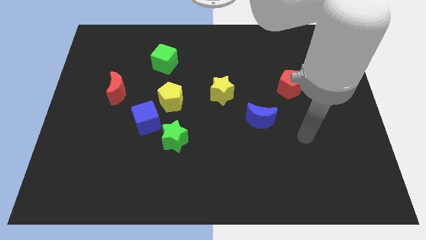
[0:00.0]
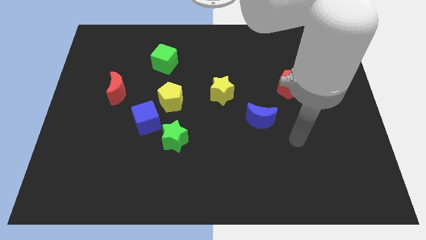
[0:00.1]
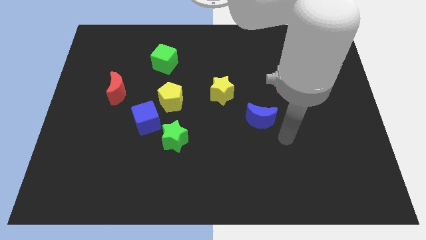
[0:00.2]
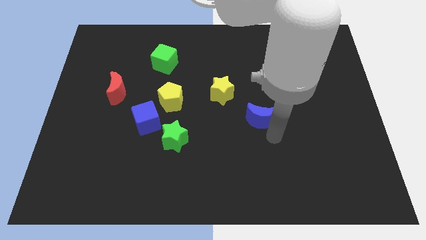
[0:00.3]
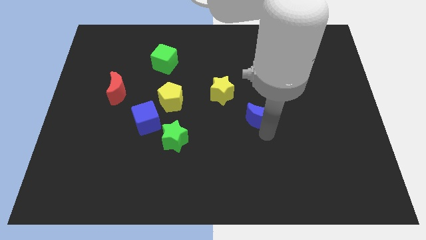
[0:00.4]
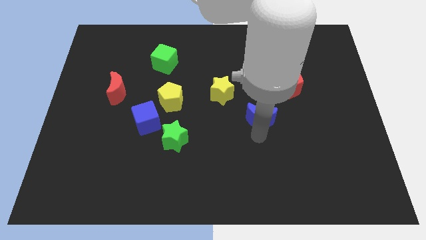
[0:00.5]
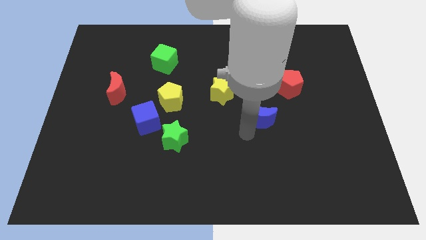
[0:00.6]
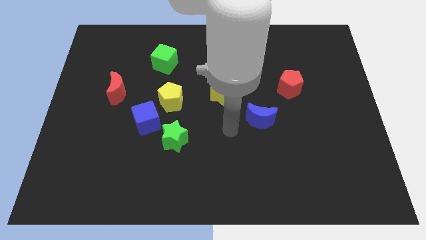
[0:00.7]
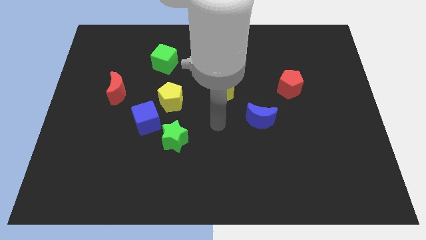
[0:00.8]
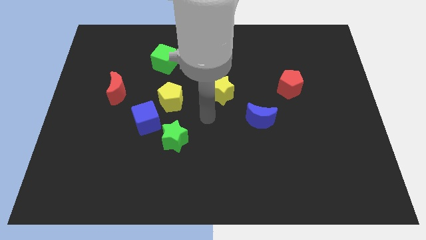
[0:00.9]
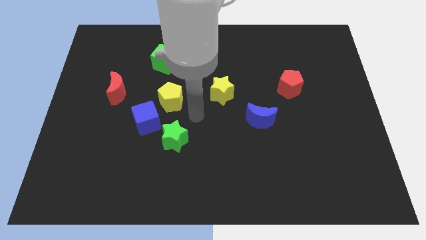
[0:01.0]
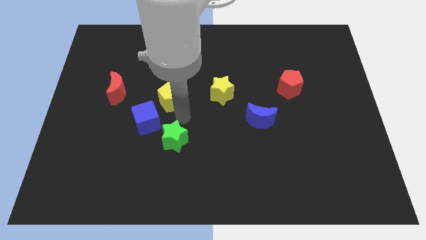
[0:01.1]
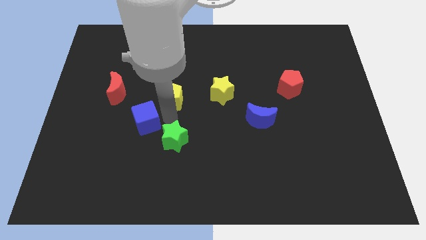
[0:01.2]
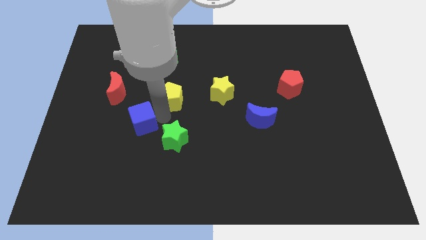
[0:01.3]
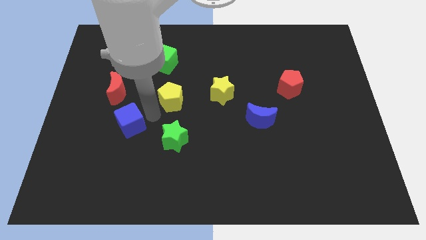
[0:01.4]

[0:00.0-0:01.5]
pull the yellow pentagon apart from the blue cube

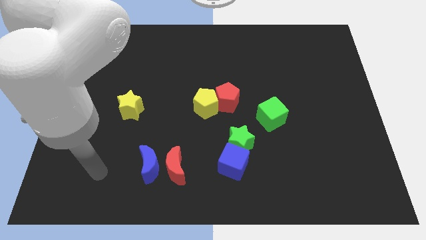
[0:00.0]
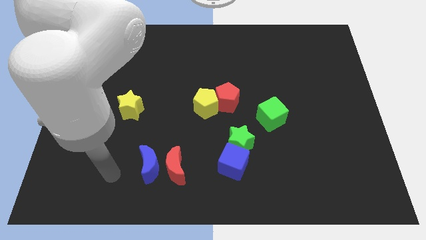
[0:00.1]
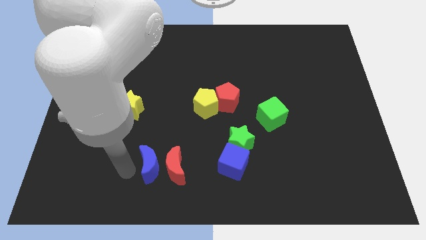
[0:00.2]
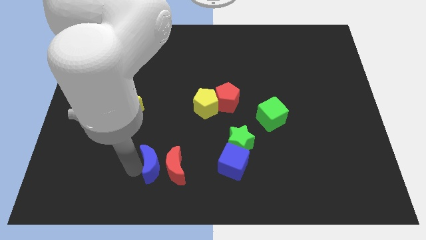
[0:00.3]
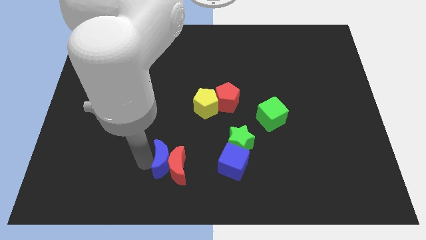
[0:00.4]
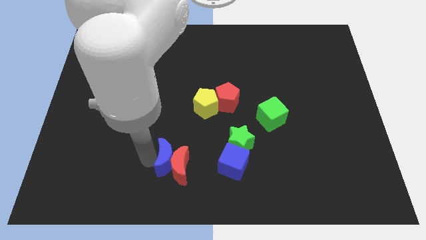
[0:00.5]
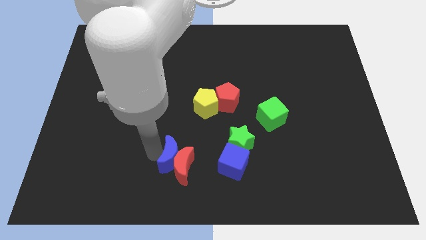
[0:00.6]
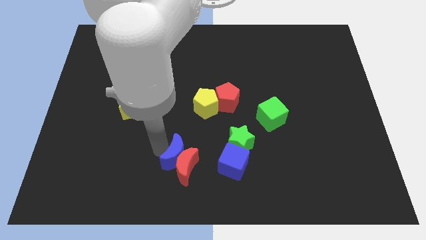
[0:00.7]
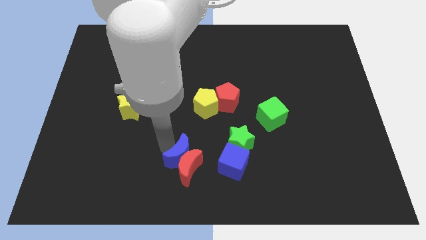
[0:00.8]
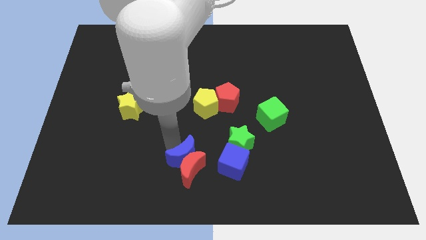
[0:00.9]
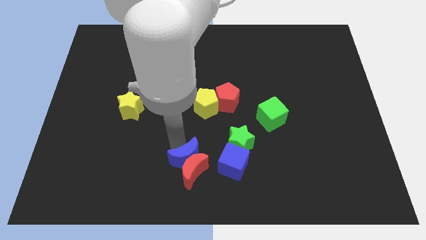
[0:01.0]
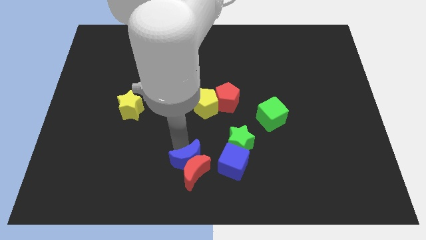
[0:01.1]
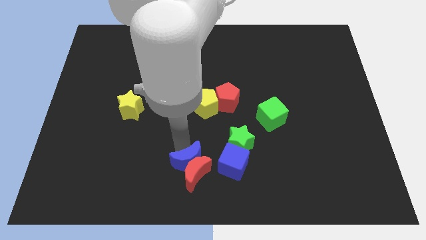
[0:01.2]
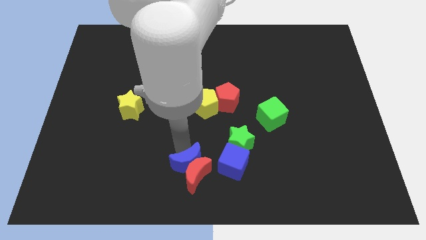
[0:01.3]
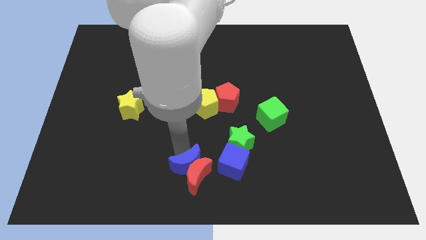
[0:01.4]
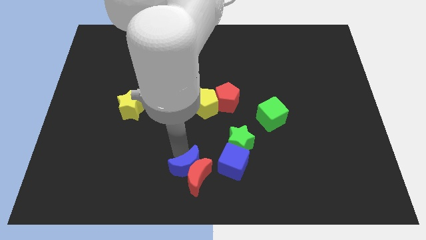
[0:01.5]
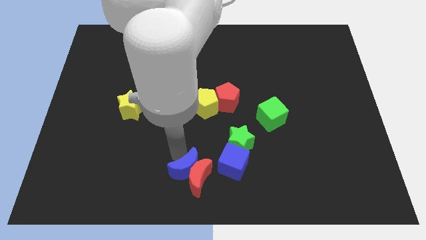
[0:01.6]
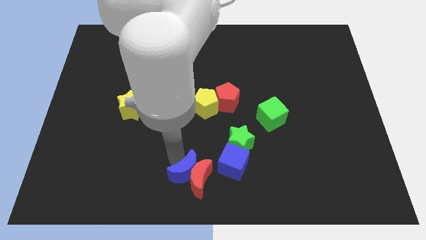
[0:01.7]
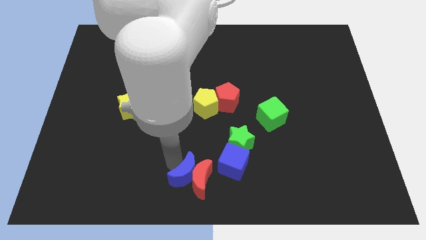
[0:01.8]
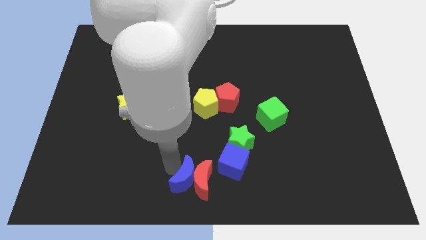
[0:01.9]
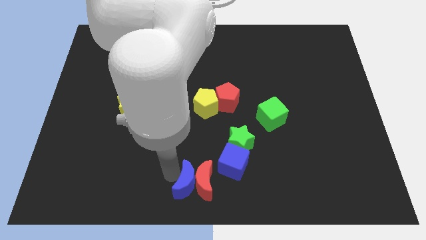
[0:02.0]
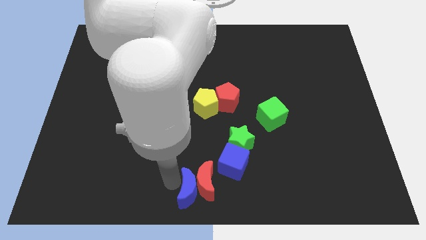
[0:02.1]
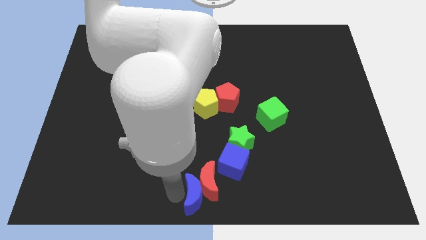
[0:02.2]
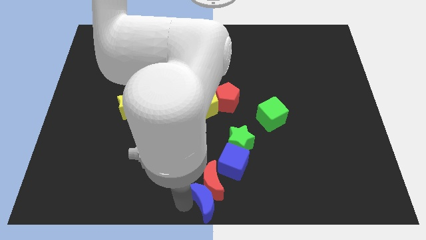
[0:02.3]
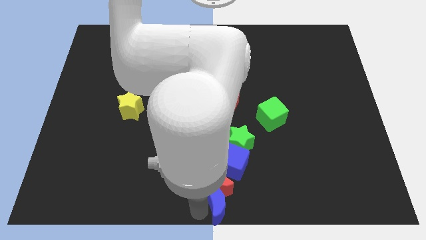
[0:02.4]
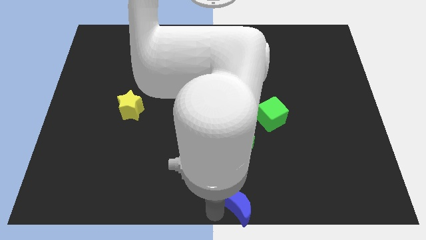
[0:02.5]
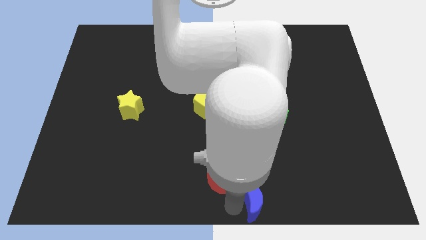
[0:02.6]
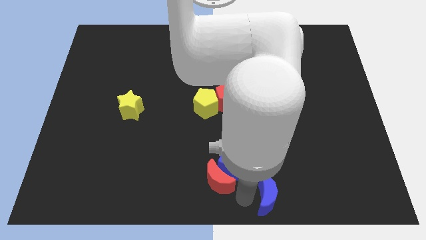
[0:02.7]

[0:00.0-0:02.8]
separate the red moon from the blue moon

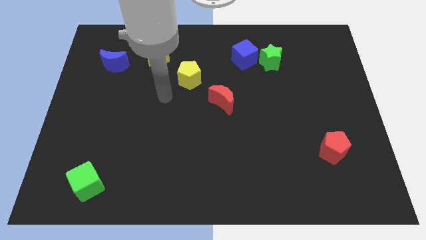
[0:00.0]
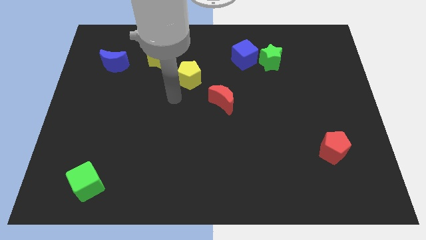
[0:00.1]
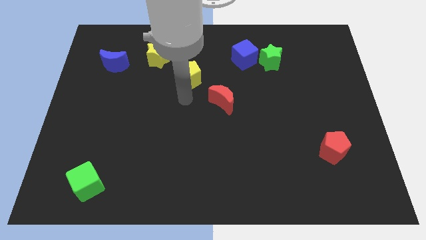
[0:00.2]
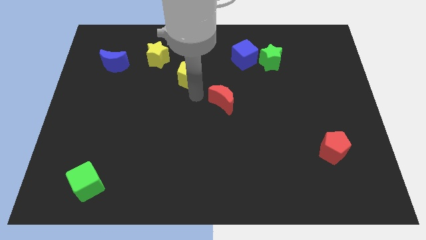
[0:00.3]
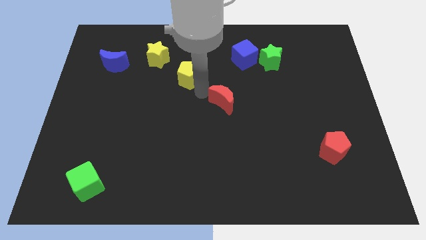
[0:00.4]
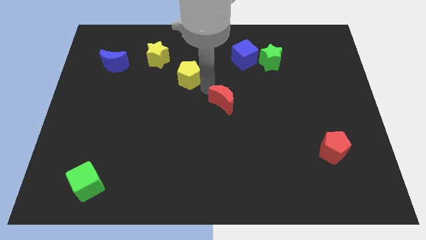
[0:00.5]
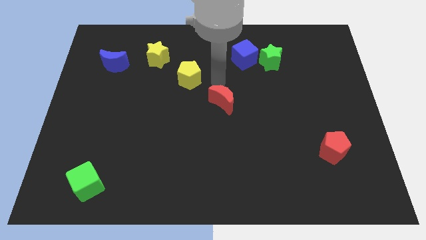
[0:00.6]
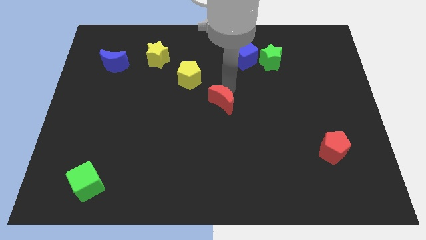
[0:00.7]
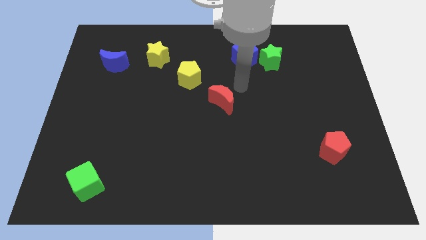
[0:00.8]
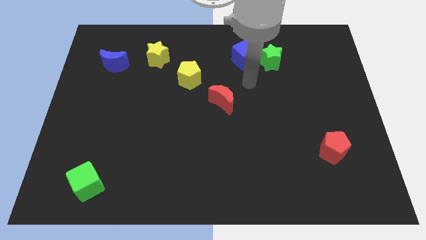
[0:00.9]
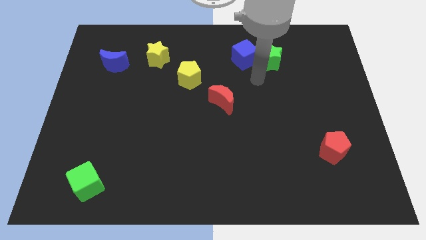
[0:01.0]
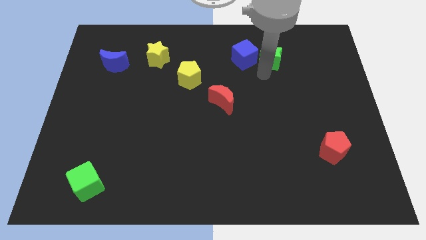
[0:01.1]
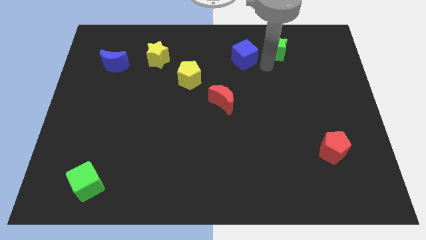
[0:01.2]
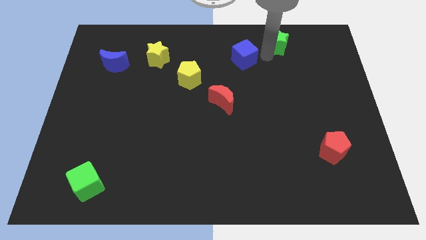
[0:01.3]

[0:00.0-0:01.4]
separate the blue cube from the green star

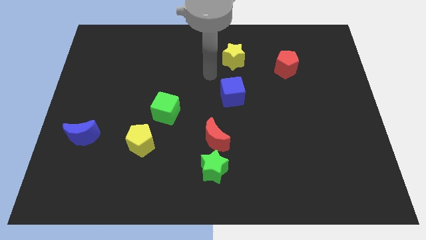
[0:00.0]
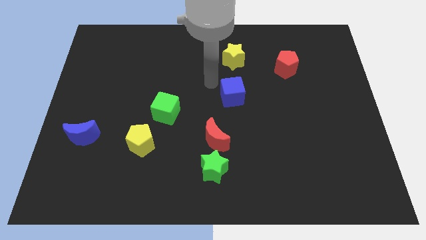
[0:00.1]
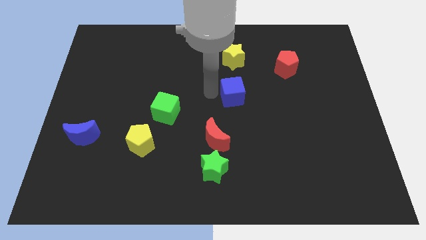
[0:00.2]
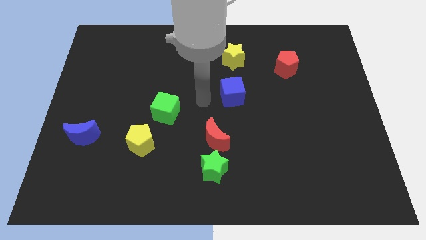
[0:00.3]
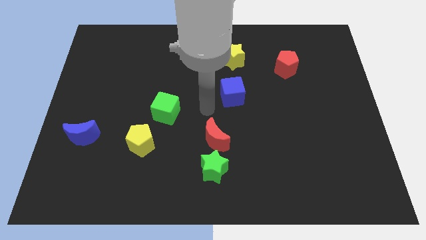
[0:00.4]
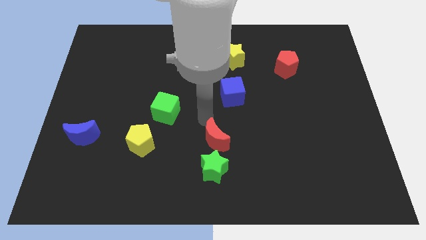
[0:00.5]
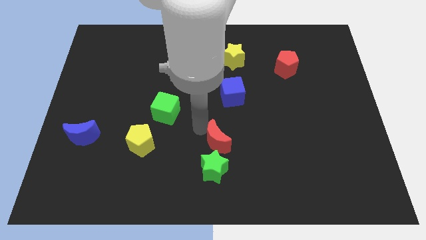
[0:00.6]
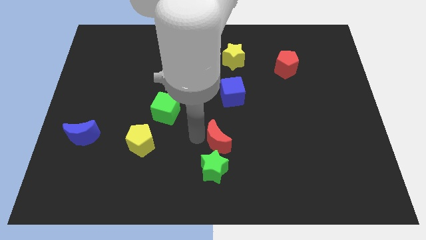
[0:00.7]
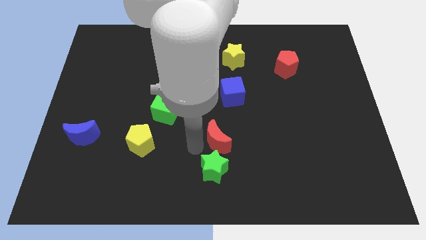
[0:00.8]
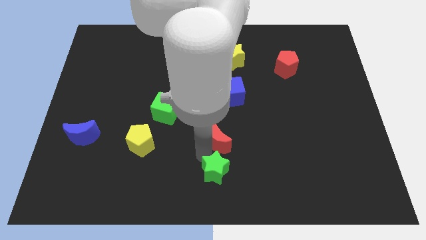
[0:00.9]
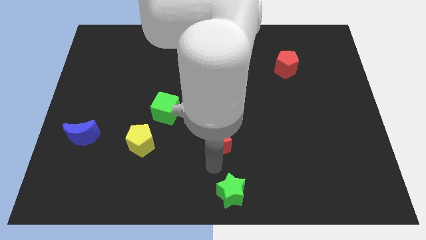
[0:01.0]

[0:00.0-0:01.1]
separate the red moon from the green star

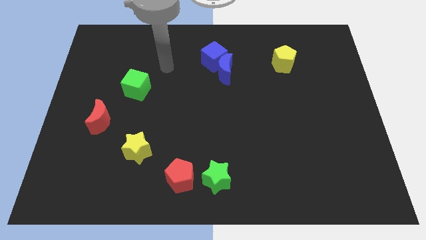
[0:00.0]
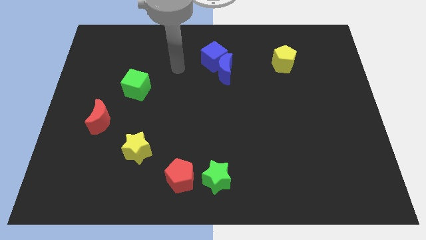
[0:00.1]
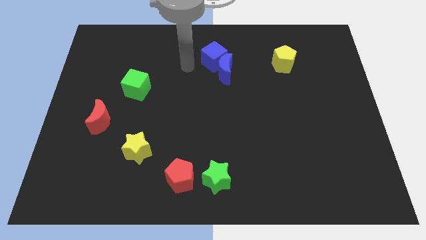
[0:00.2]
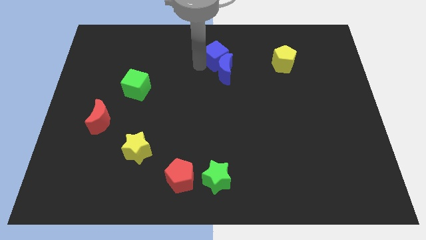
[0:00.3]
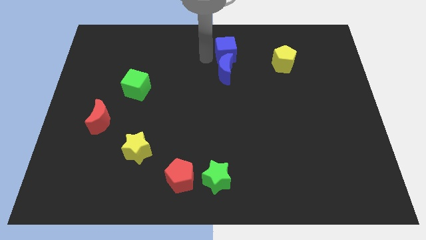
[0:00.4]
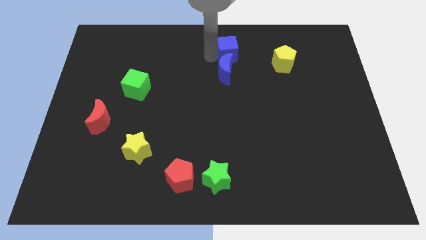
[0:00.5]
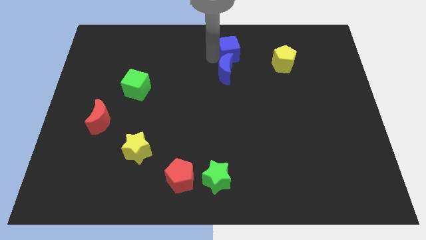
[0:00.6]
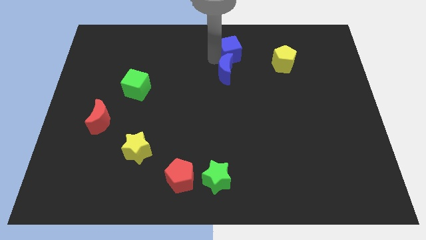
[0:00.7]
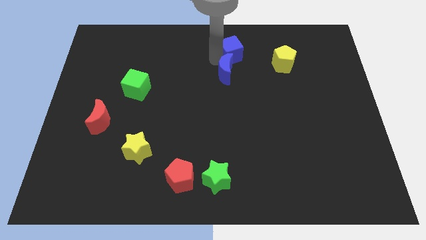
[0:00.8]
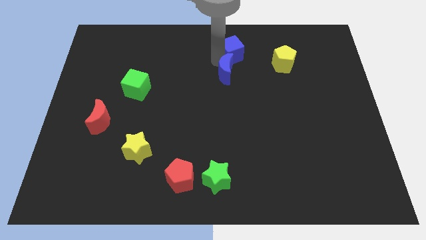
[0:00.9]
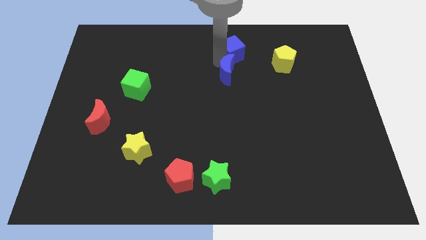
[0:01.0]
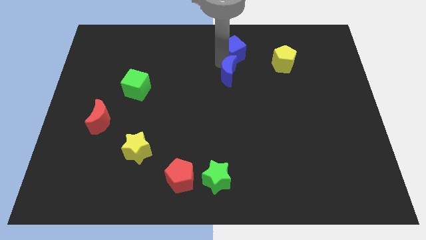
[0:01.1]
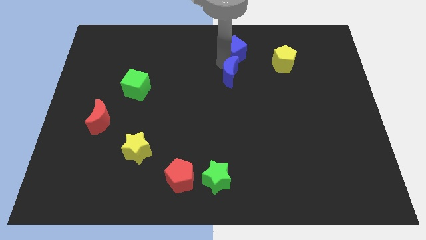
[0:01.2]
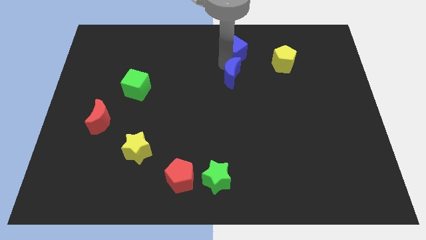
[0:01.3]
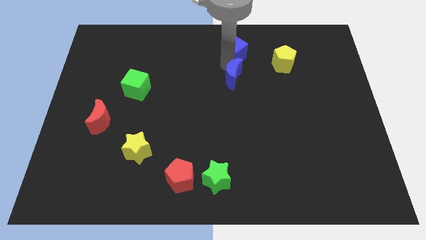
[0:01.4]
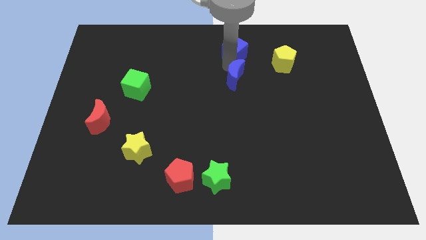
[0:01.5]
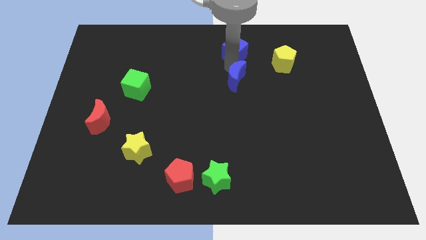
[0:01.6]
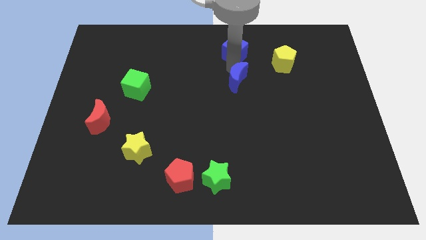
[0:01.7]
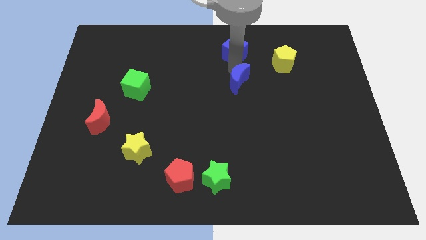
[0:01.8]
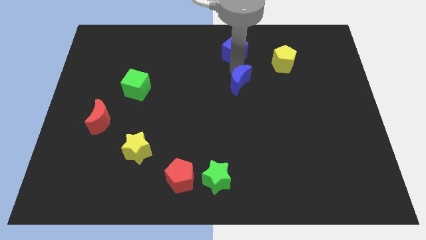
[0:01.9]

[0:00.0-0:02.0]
separate the blue moon from the blue cube

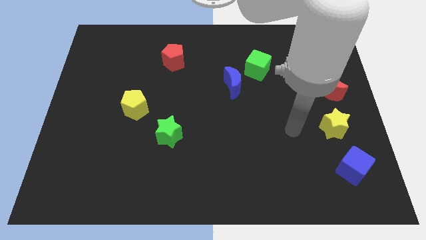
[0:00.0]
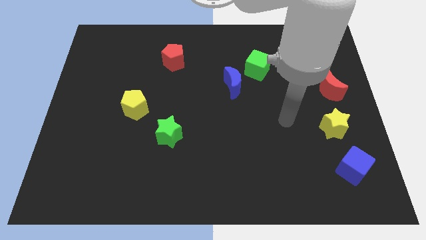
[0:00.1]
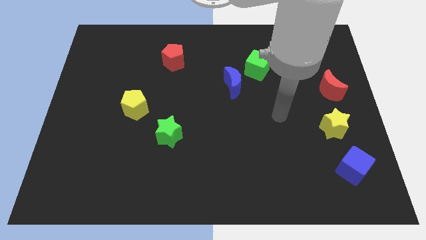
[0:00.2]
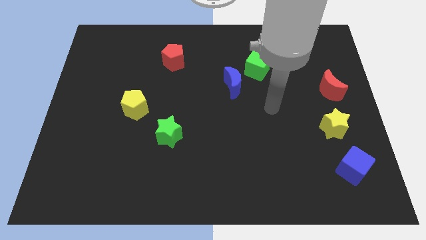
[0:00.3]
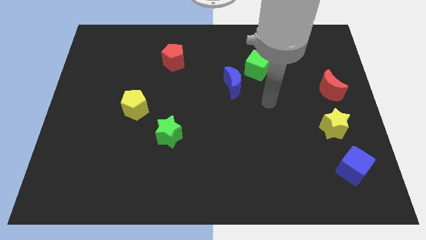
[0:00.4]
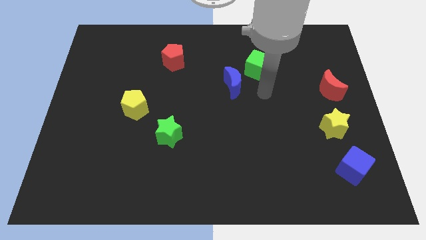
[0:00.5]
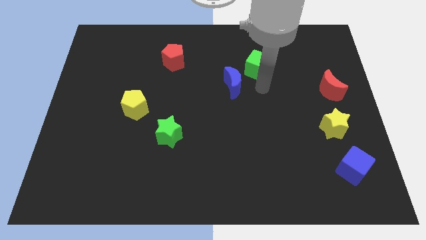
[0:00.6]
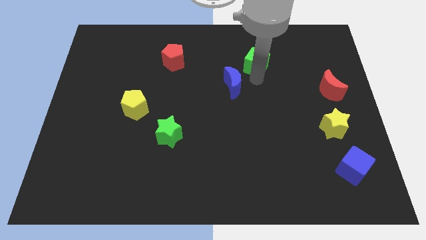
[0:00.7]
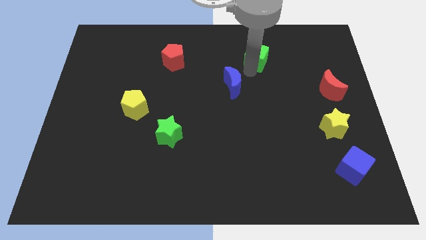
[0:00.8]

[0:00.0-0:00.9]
separate the blue moon from the green cube
